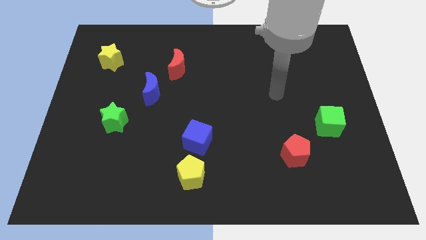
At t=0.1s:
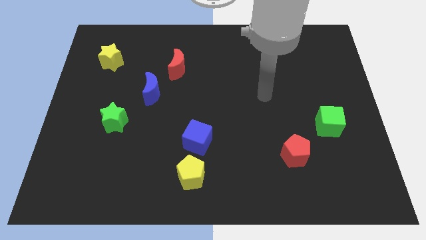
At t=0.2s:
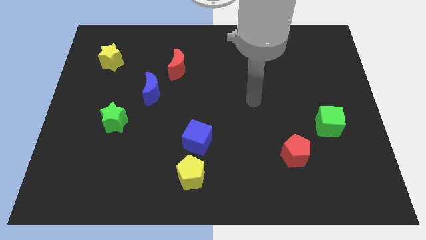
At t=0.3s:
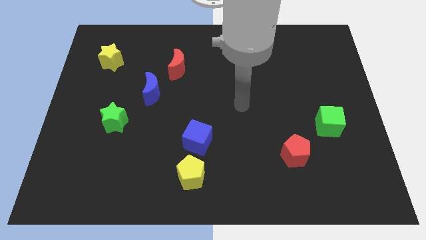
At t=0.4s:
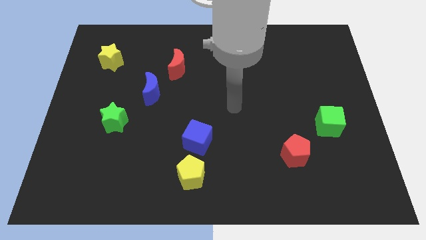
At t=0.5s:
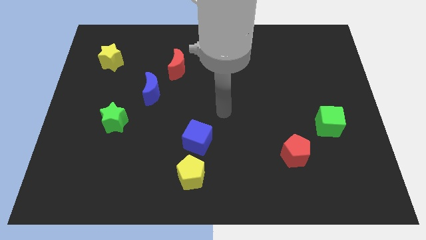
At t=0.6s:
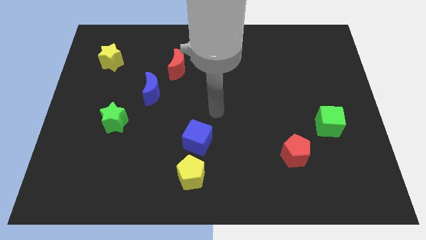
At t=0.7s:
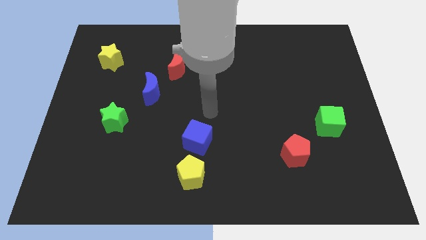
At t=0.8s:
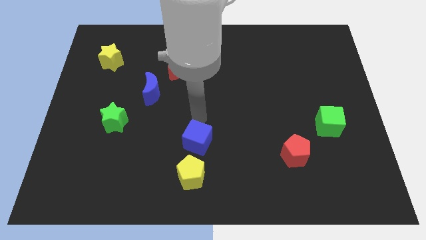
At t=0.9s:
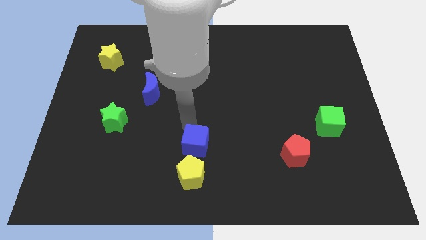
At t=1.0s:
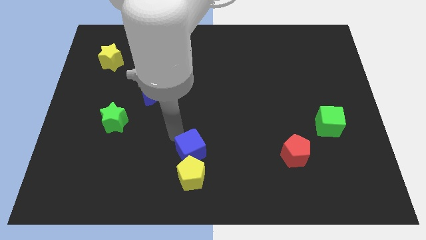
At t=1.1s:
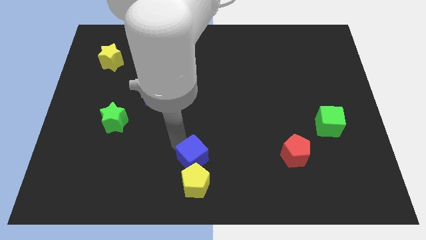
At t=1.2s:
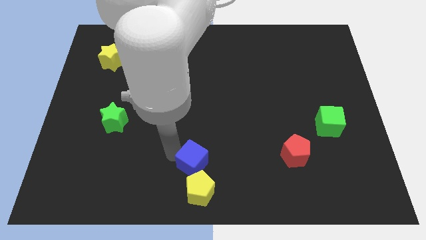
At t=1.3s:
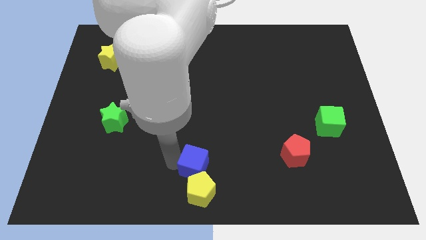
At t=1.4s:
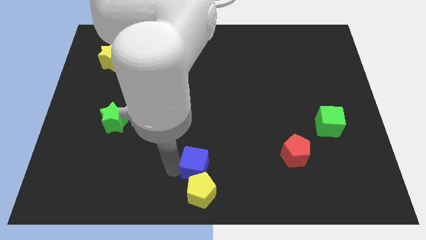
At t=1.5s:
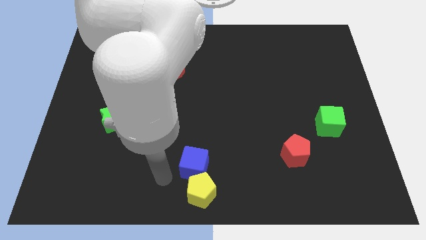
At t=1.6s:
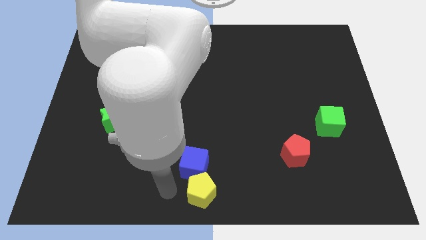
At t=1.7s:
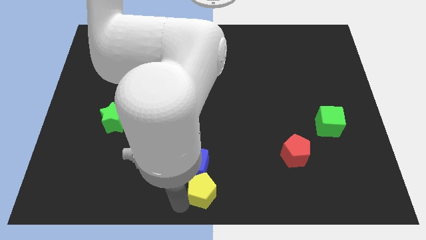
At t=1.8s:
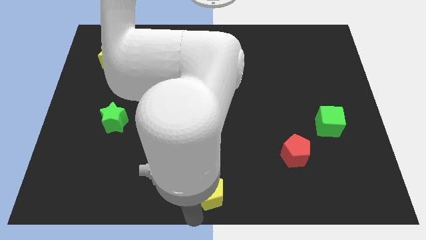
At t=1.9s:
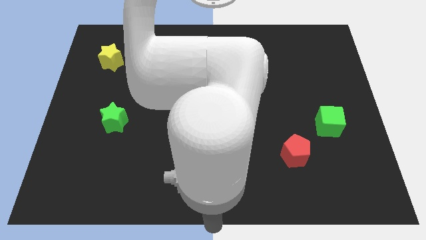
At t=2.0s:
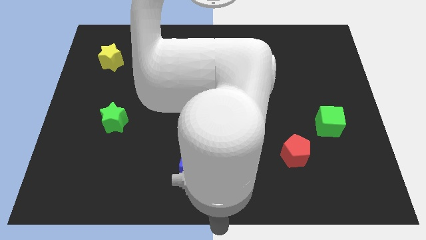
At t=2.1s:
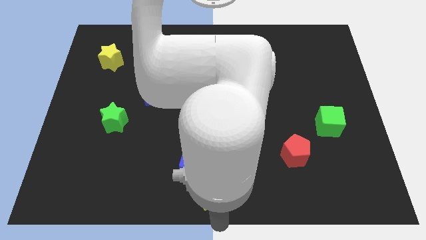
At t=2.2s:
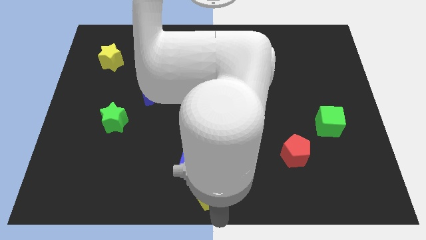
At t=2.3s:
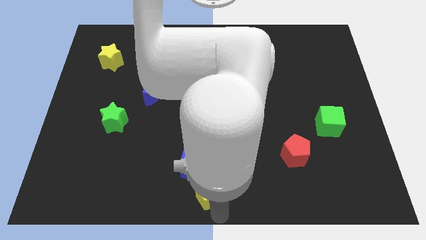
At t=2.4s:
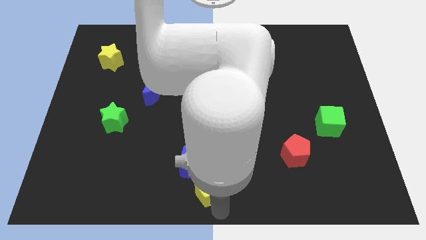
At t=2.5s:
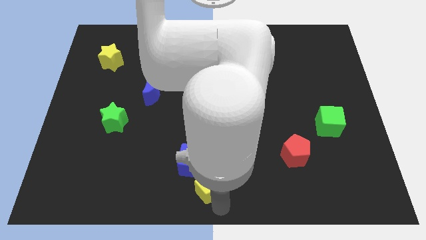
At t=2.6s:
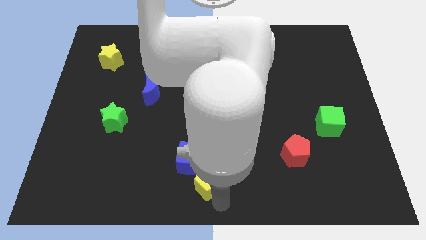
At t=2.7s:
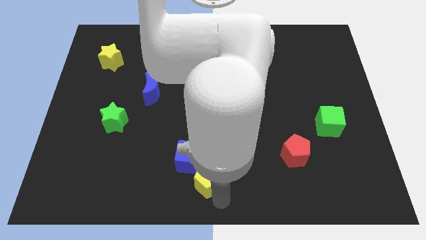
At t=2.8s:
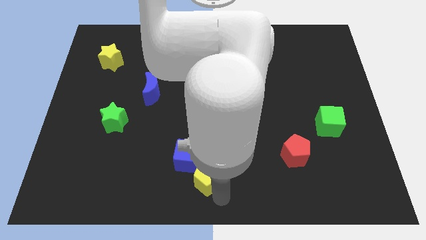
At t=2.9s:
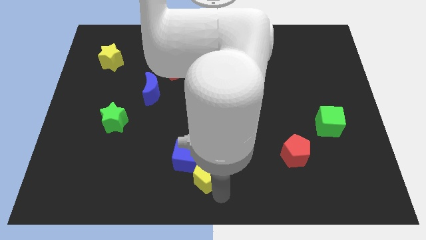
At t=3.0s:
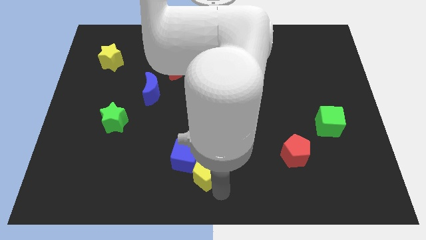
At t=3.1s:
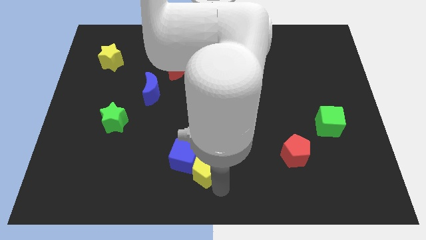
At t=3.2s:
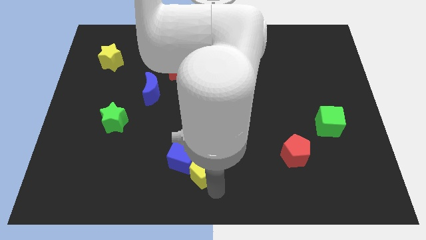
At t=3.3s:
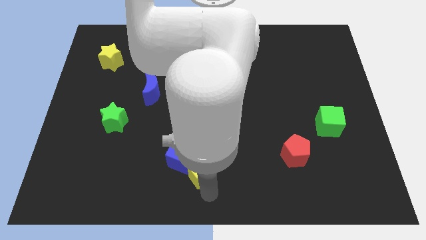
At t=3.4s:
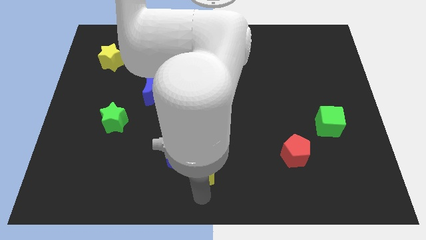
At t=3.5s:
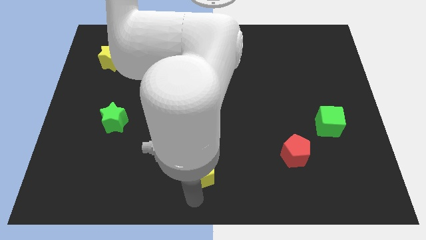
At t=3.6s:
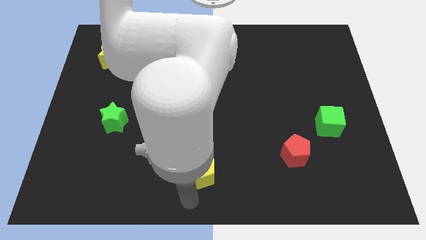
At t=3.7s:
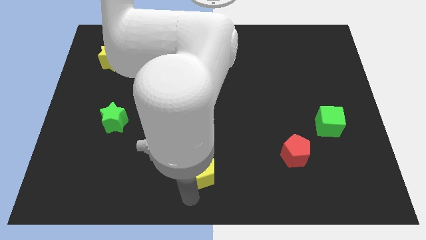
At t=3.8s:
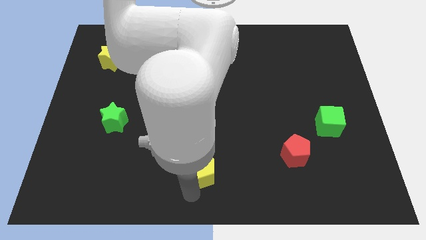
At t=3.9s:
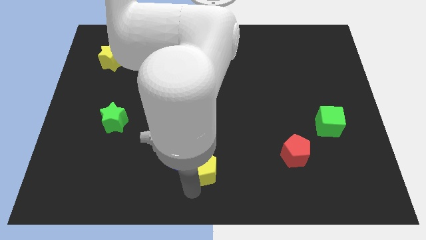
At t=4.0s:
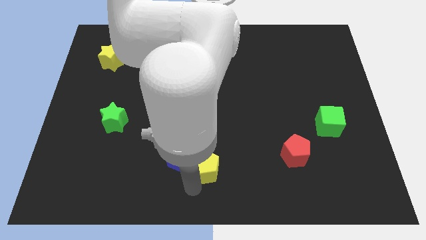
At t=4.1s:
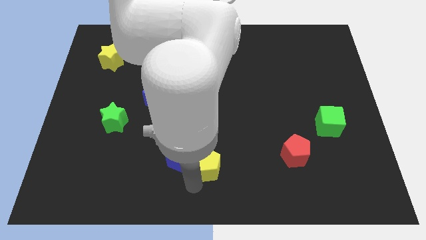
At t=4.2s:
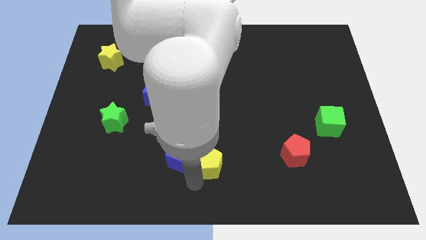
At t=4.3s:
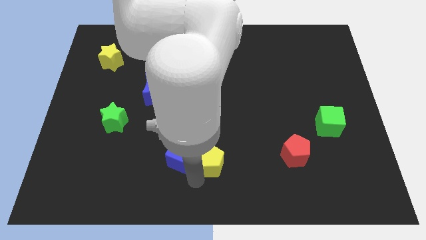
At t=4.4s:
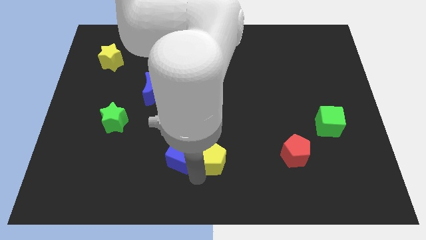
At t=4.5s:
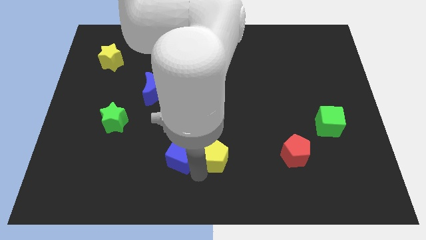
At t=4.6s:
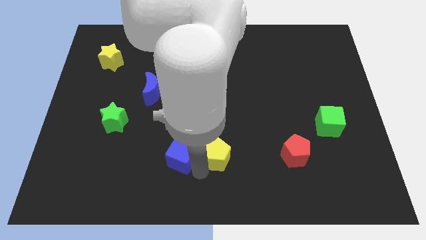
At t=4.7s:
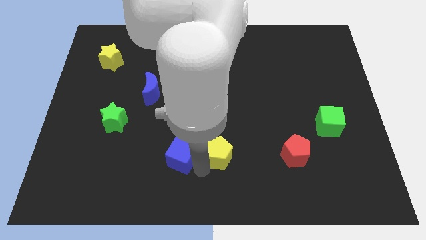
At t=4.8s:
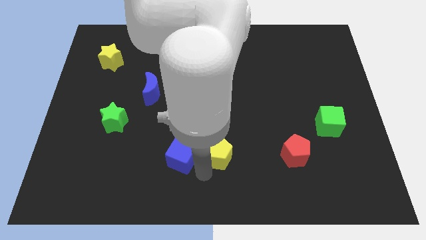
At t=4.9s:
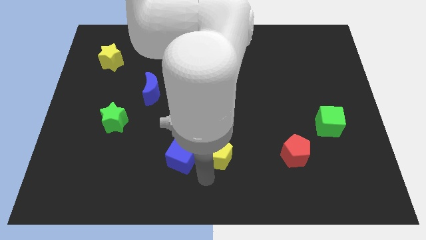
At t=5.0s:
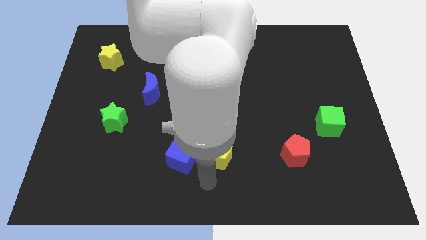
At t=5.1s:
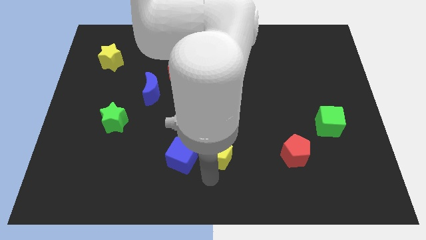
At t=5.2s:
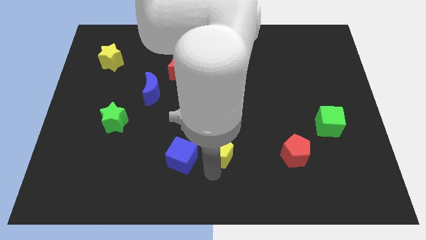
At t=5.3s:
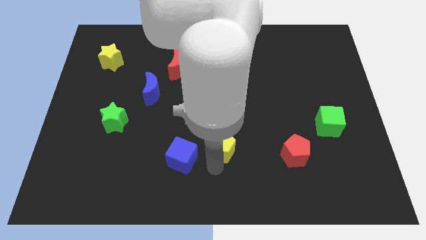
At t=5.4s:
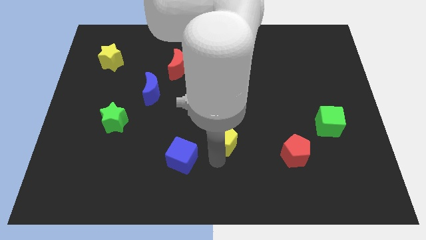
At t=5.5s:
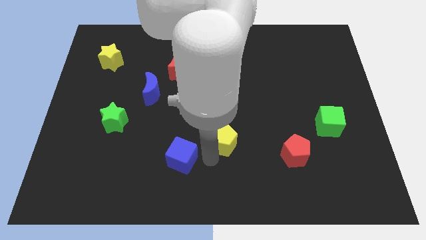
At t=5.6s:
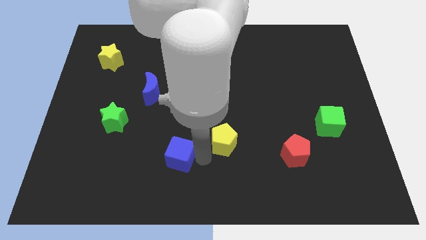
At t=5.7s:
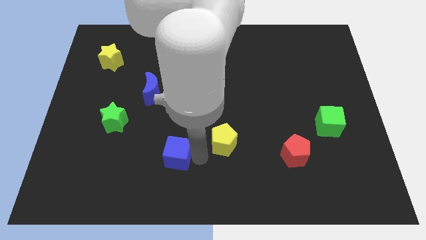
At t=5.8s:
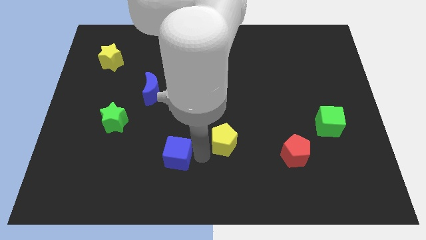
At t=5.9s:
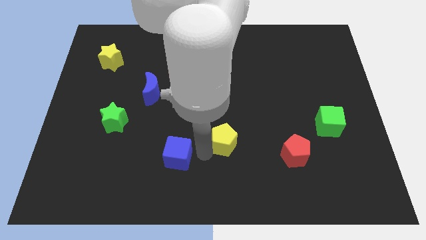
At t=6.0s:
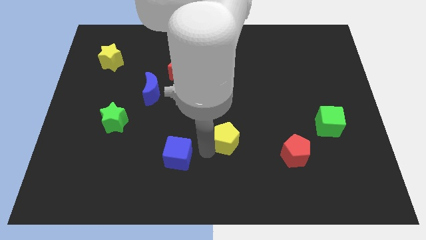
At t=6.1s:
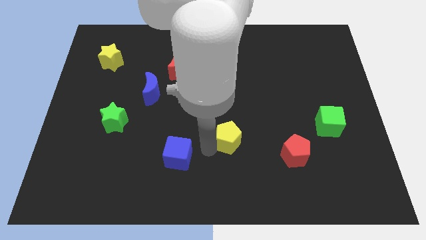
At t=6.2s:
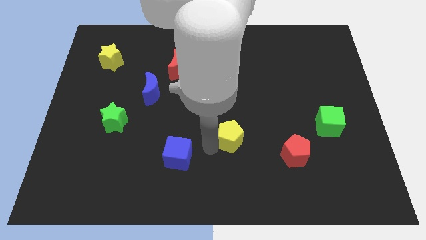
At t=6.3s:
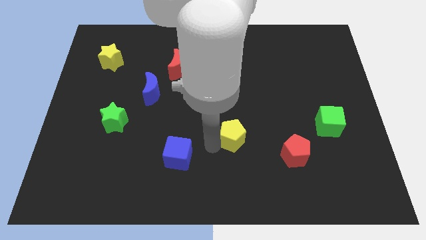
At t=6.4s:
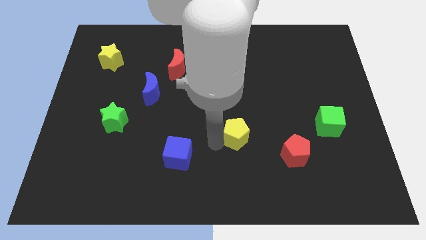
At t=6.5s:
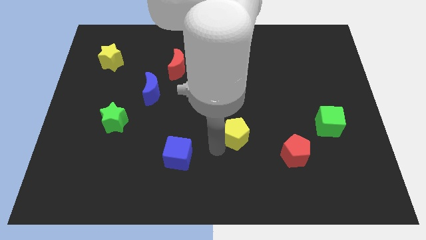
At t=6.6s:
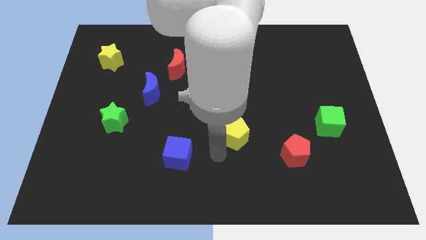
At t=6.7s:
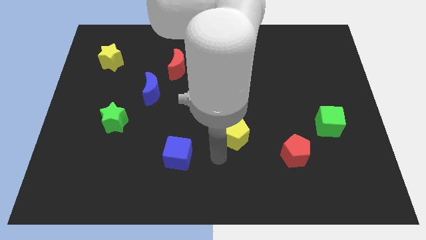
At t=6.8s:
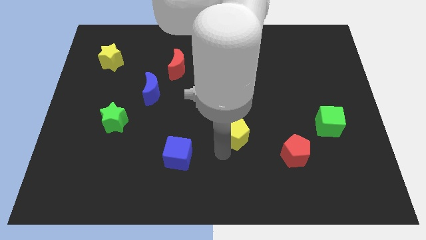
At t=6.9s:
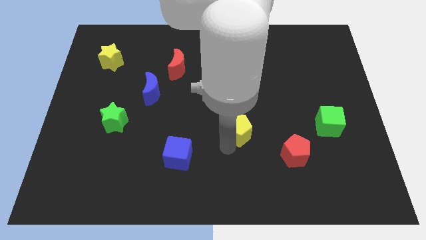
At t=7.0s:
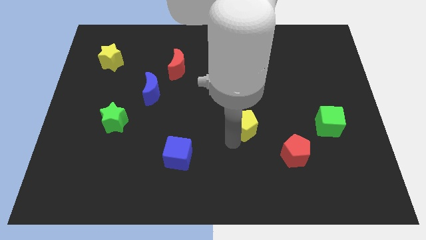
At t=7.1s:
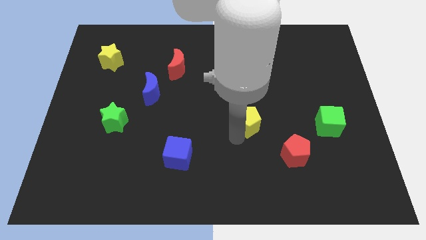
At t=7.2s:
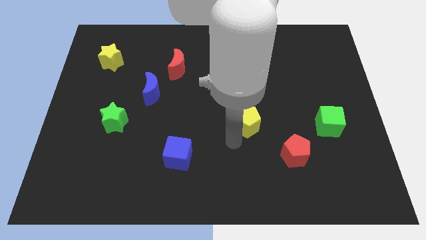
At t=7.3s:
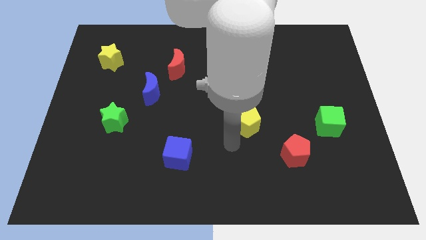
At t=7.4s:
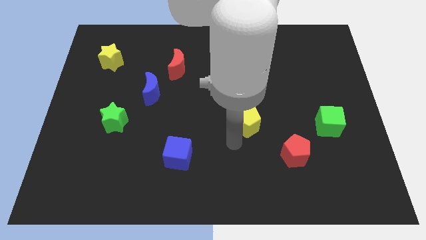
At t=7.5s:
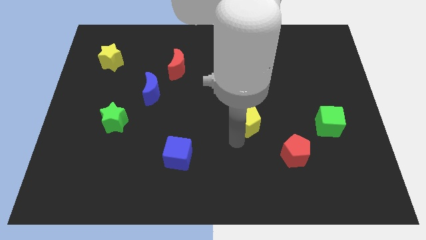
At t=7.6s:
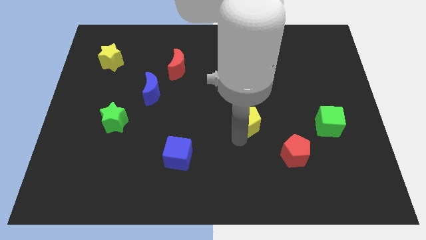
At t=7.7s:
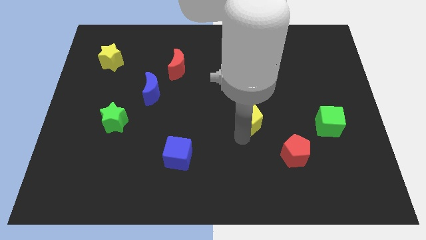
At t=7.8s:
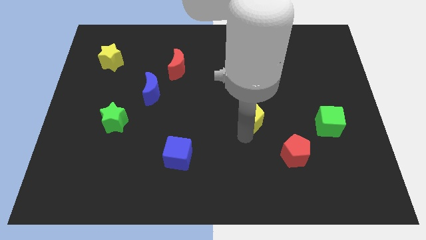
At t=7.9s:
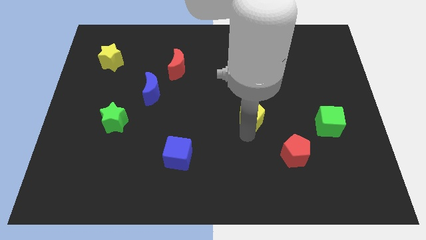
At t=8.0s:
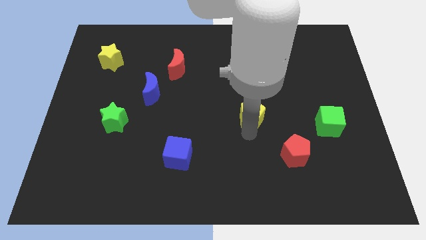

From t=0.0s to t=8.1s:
slide the yellow pentagon upwards and then to the right
